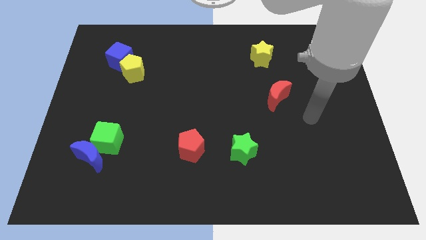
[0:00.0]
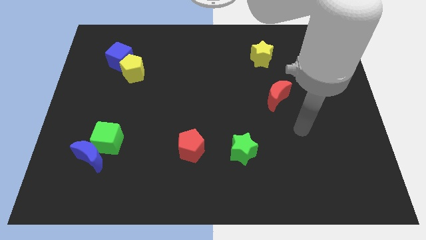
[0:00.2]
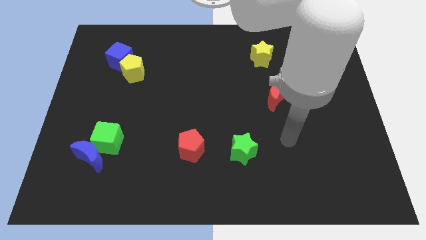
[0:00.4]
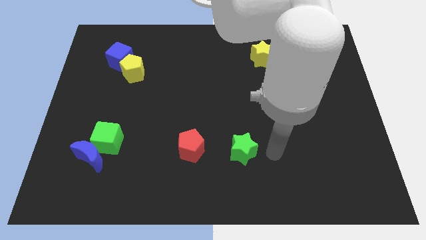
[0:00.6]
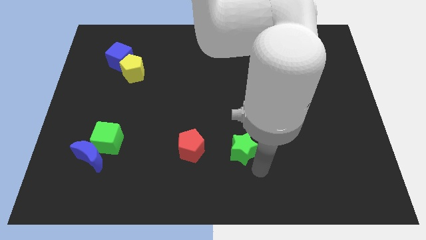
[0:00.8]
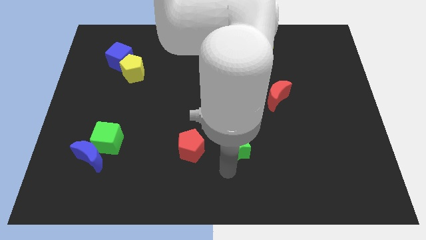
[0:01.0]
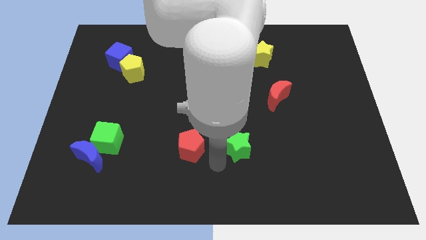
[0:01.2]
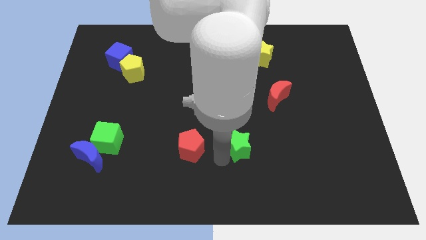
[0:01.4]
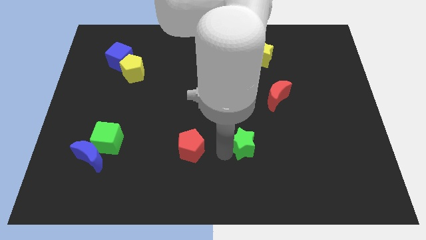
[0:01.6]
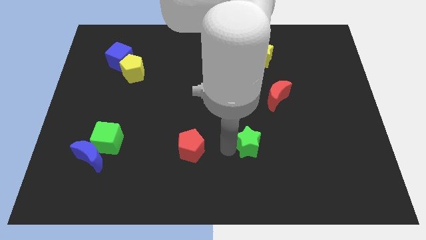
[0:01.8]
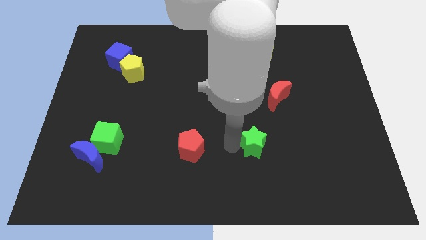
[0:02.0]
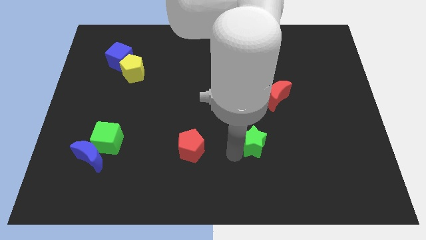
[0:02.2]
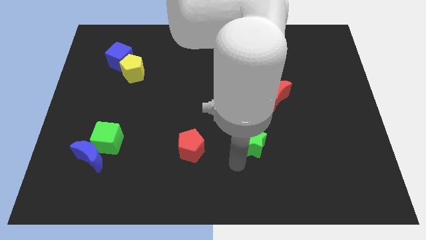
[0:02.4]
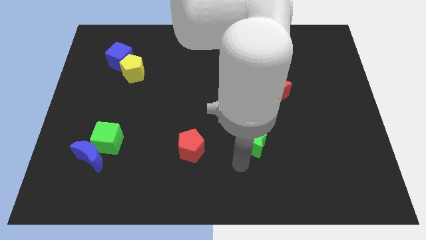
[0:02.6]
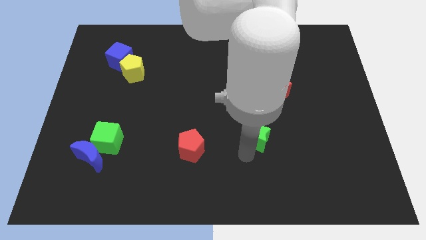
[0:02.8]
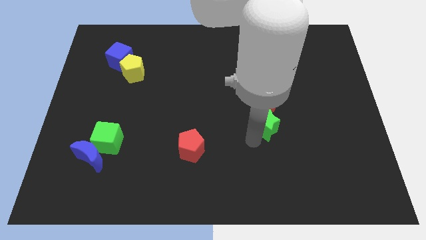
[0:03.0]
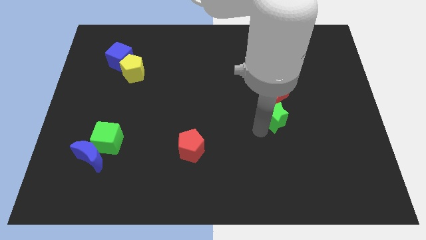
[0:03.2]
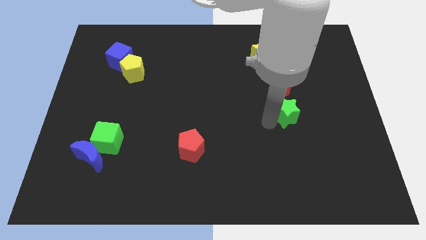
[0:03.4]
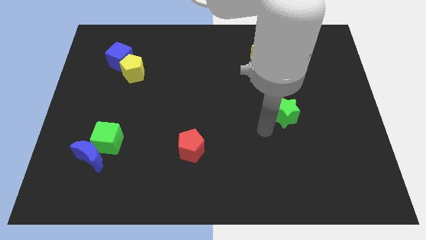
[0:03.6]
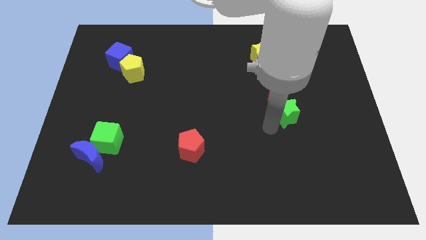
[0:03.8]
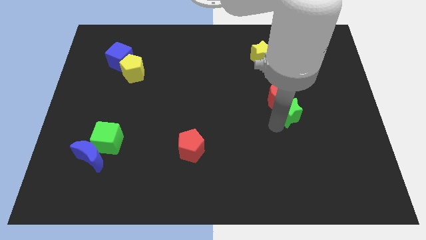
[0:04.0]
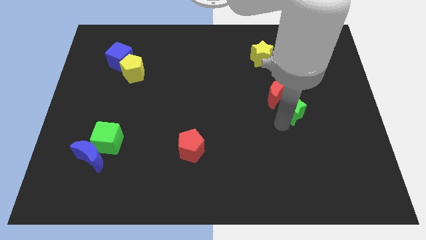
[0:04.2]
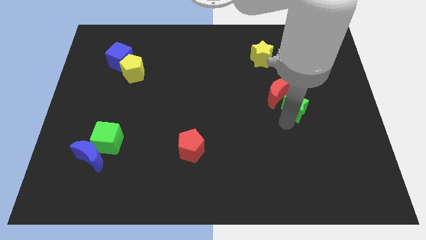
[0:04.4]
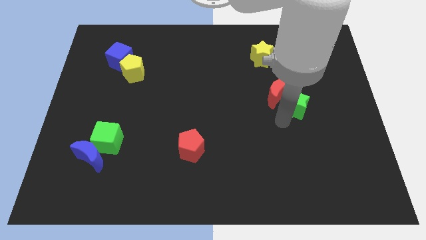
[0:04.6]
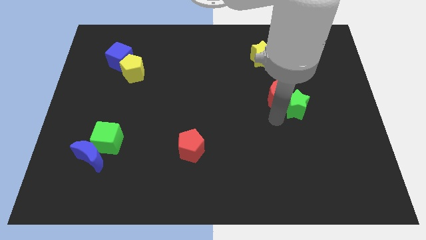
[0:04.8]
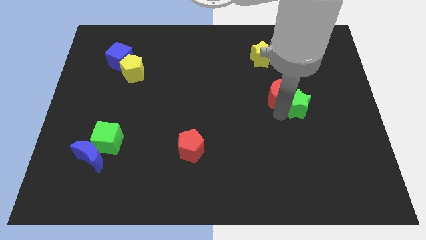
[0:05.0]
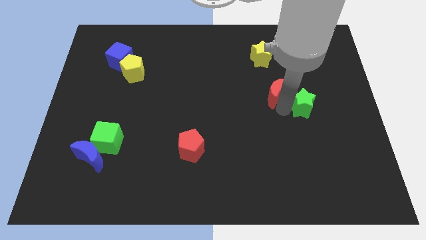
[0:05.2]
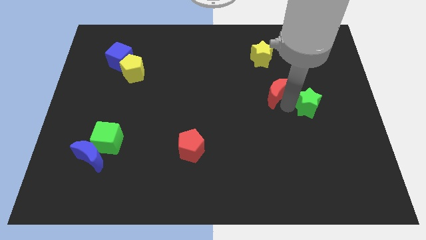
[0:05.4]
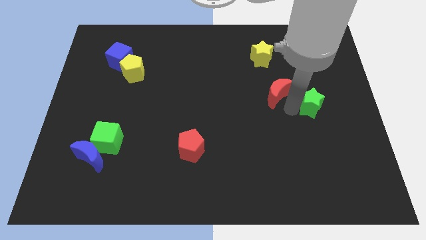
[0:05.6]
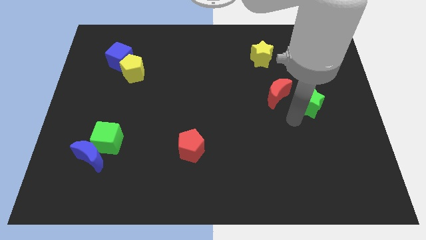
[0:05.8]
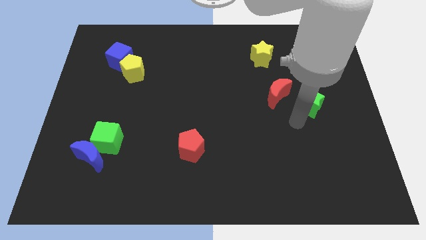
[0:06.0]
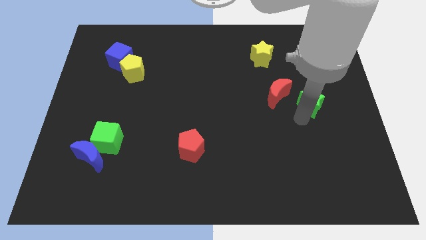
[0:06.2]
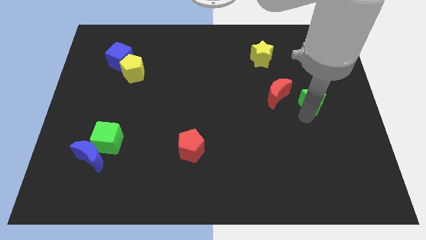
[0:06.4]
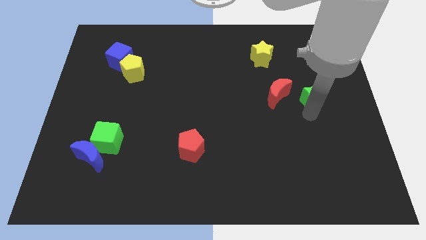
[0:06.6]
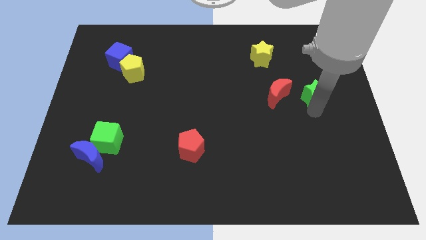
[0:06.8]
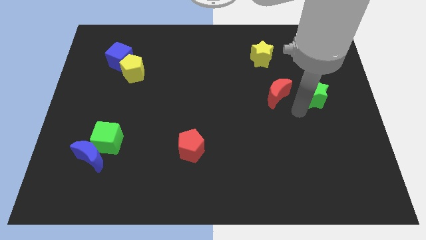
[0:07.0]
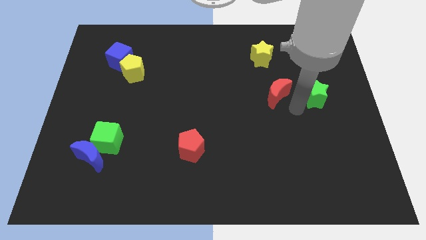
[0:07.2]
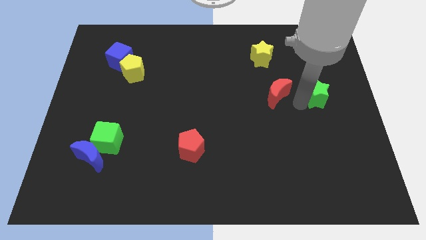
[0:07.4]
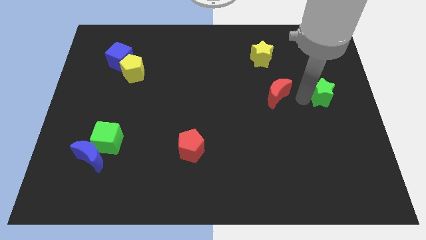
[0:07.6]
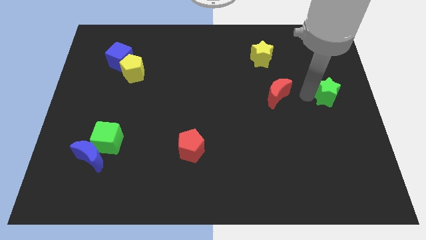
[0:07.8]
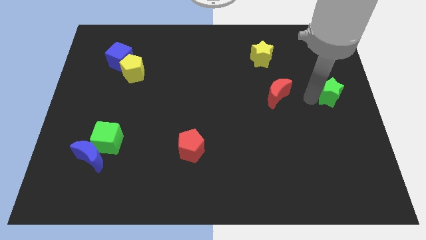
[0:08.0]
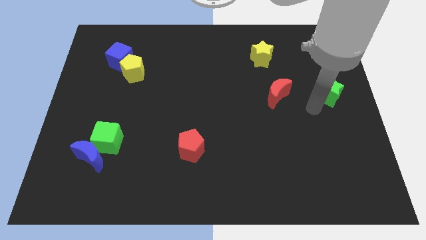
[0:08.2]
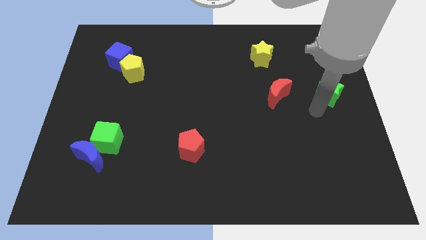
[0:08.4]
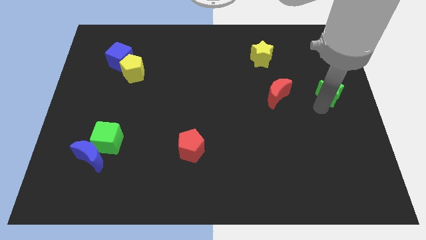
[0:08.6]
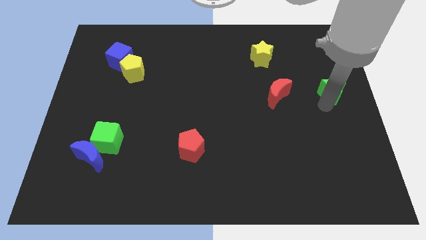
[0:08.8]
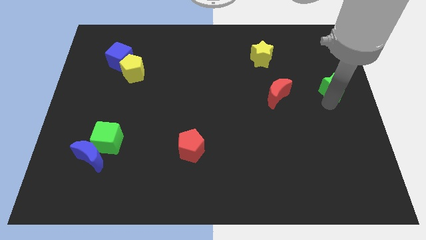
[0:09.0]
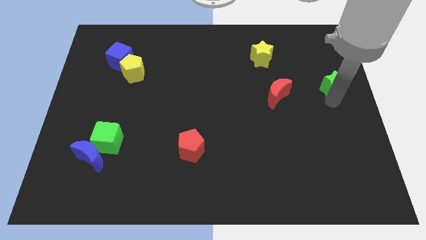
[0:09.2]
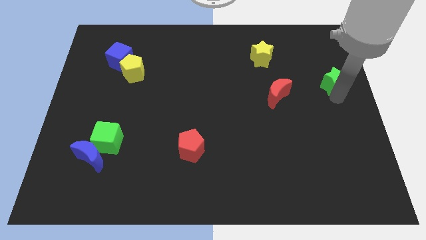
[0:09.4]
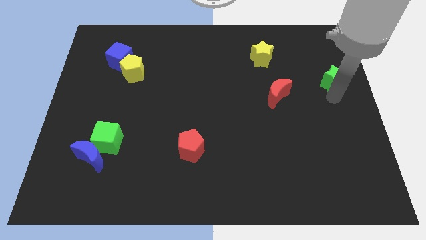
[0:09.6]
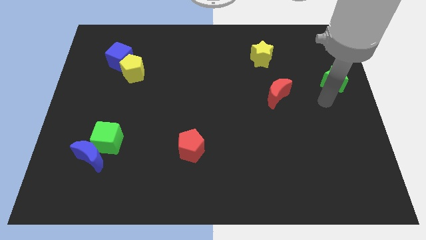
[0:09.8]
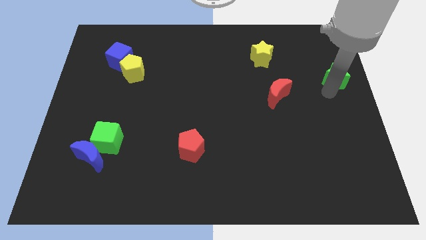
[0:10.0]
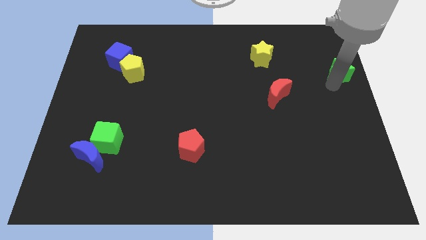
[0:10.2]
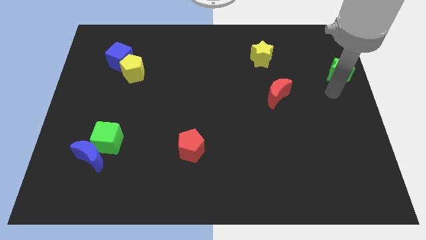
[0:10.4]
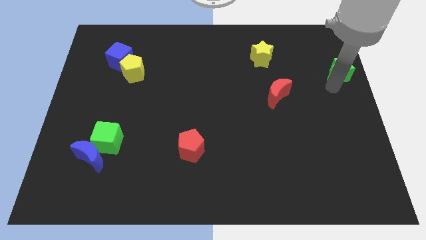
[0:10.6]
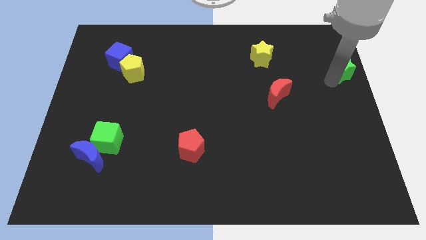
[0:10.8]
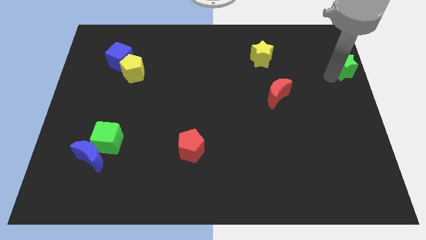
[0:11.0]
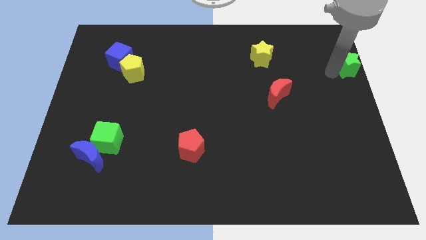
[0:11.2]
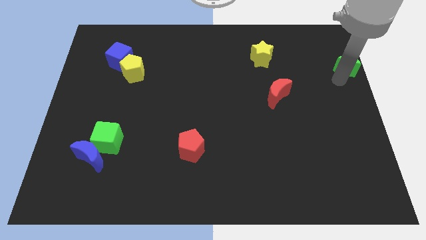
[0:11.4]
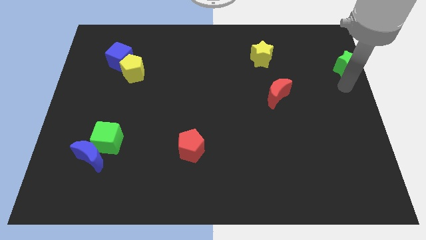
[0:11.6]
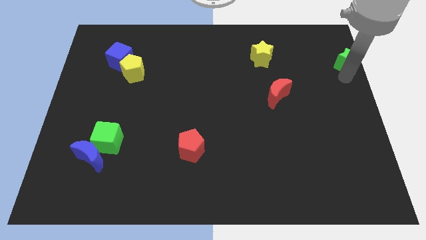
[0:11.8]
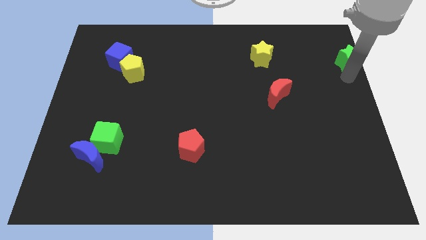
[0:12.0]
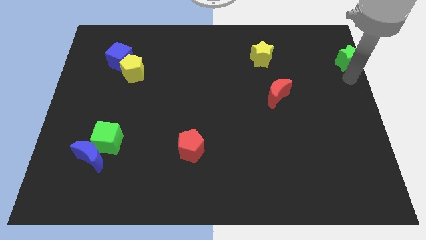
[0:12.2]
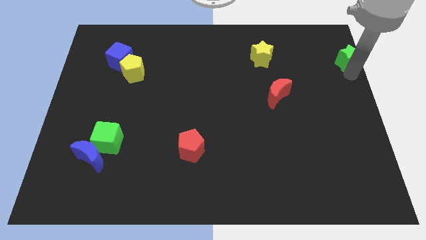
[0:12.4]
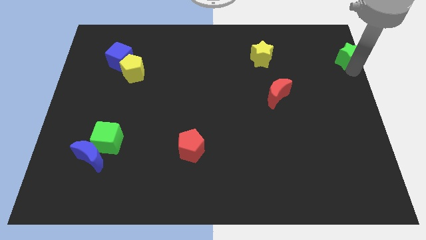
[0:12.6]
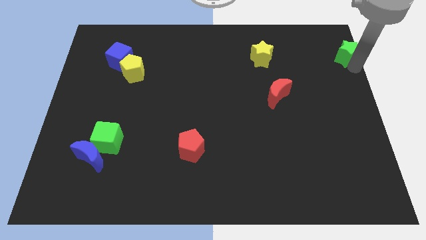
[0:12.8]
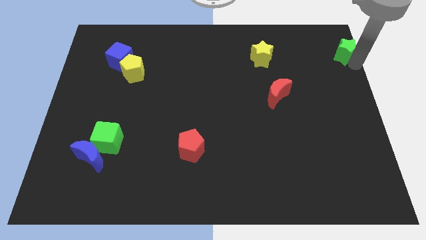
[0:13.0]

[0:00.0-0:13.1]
move the green star to the top right of the board
